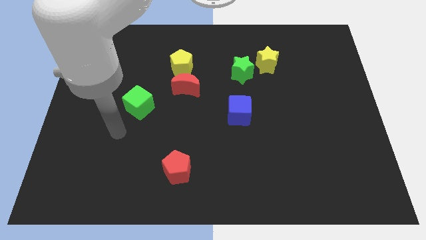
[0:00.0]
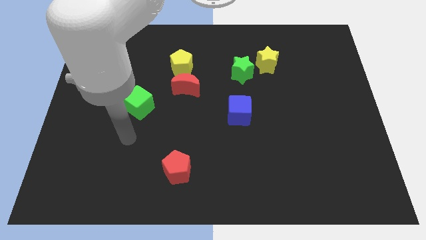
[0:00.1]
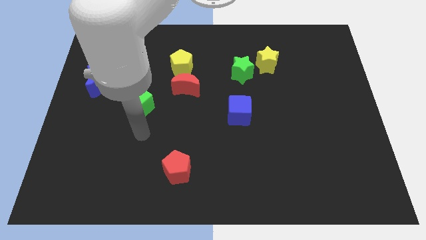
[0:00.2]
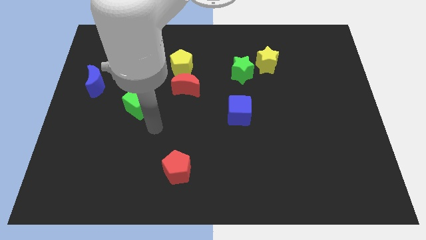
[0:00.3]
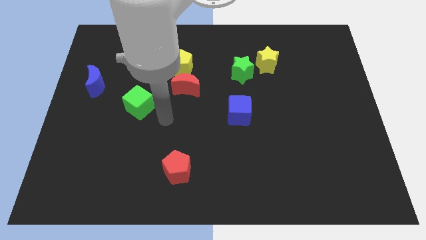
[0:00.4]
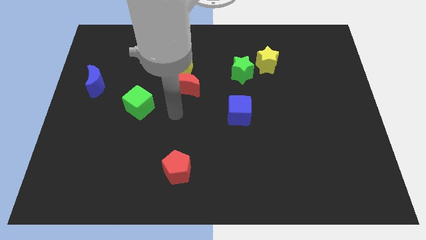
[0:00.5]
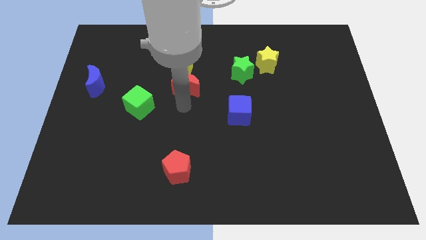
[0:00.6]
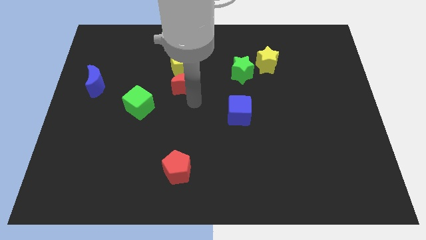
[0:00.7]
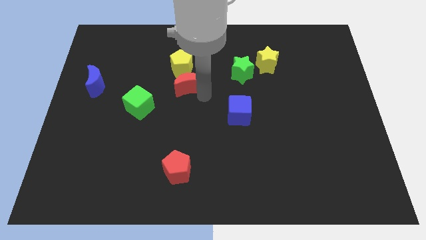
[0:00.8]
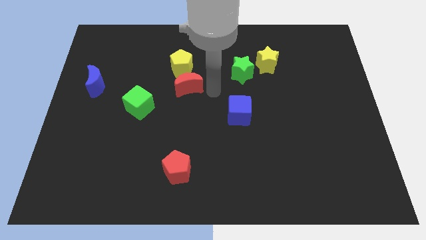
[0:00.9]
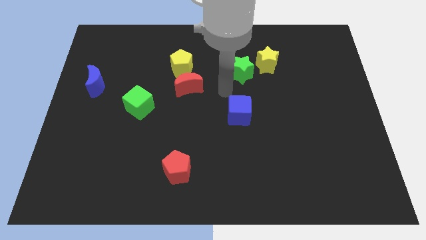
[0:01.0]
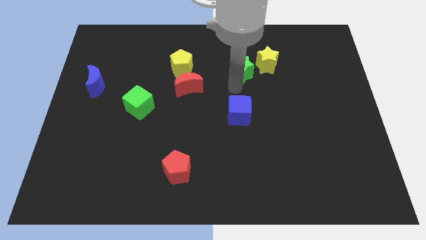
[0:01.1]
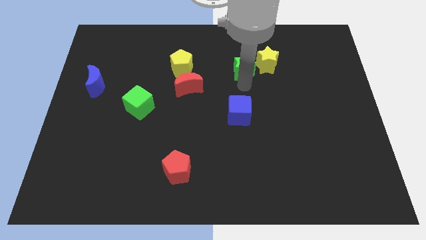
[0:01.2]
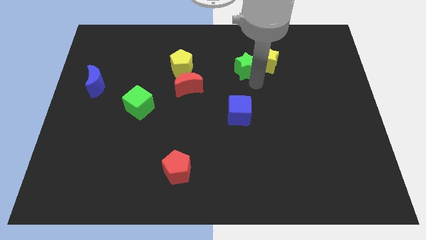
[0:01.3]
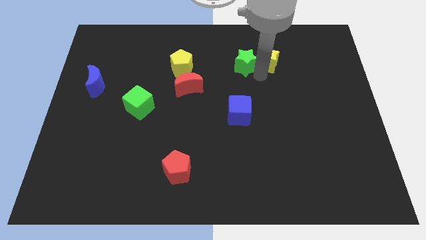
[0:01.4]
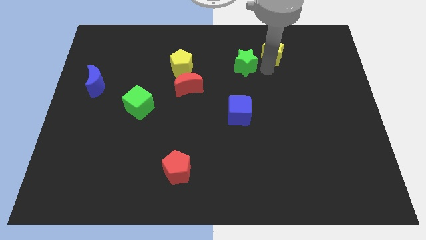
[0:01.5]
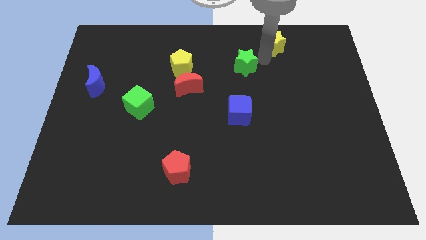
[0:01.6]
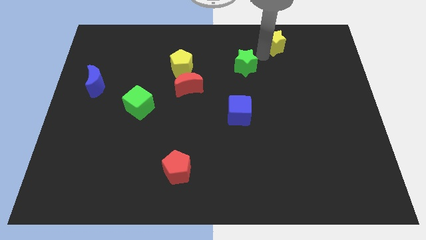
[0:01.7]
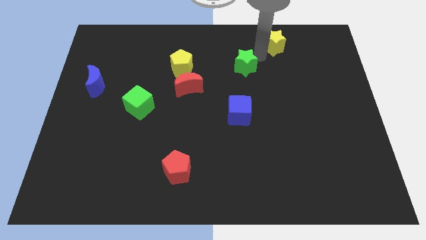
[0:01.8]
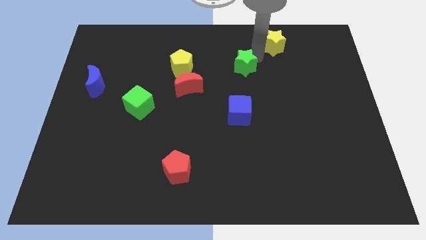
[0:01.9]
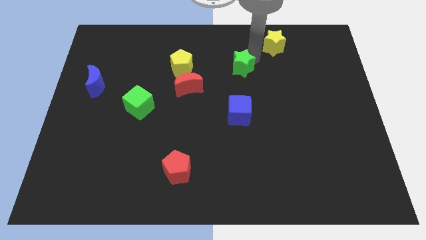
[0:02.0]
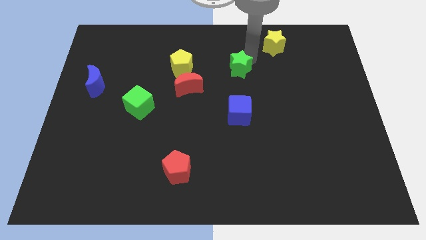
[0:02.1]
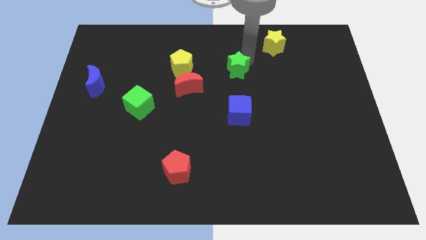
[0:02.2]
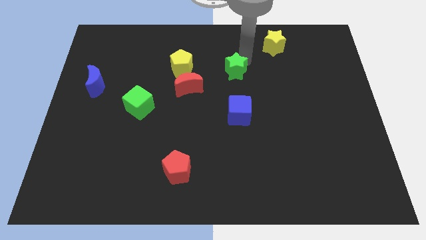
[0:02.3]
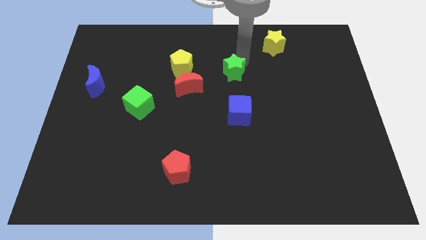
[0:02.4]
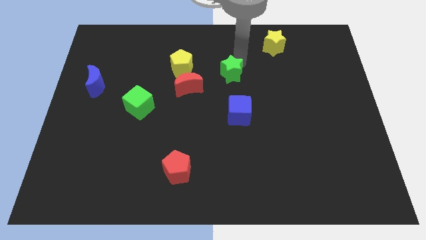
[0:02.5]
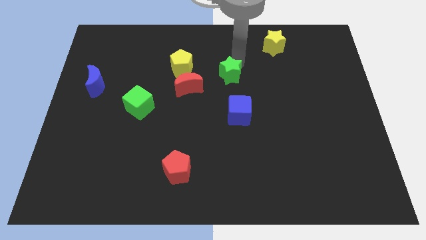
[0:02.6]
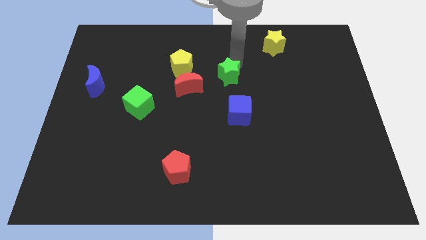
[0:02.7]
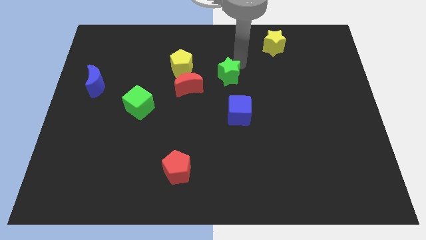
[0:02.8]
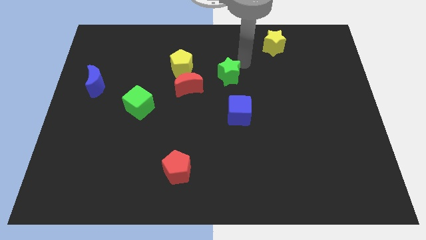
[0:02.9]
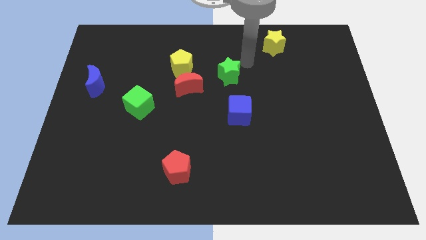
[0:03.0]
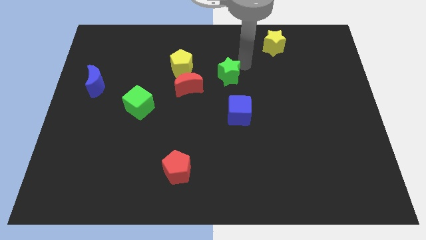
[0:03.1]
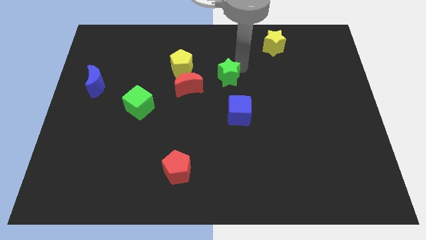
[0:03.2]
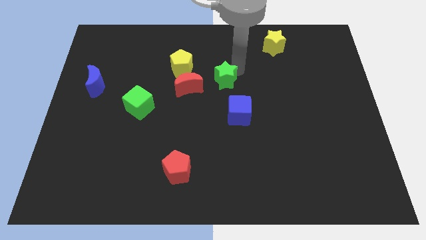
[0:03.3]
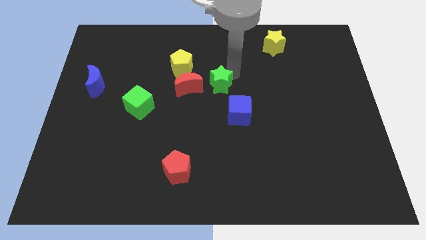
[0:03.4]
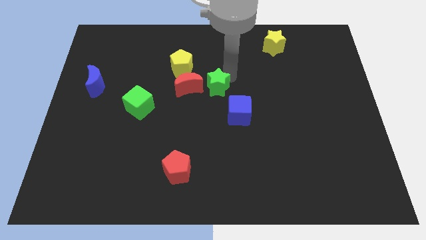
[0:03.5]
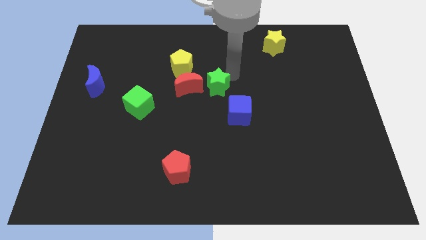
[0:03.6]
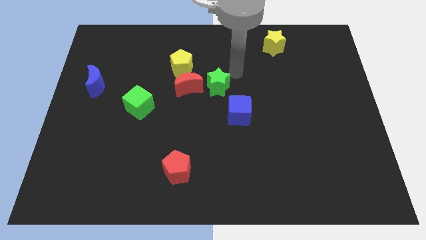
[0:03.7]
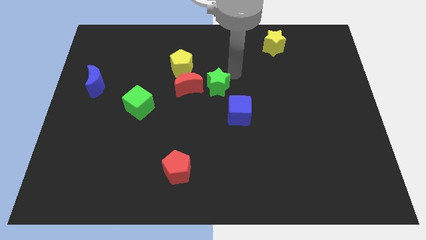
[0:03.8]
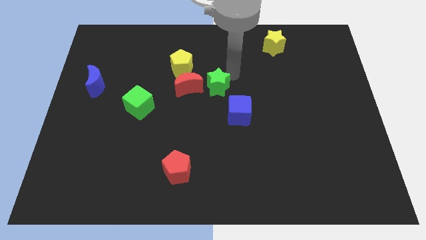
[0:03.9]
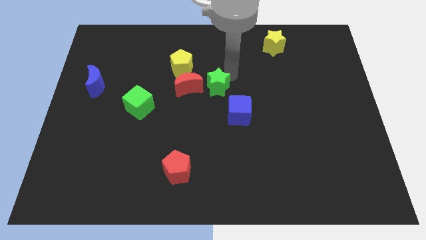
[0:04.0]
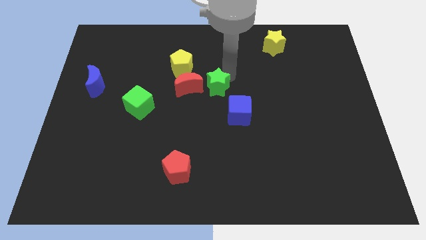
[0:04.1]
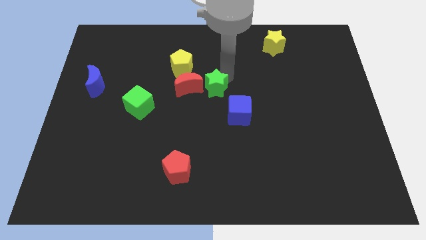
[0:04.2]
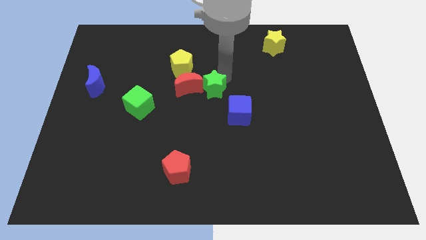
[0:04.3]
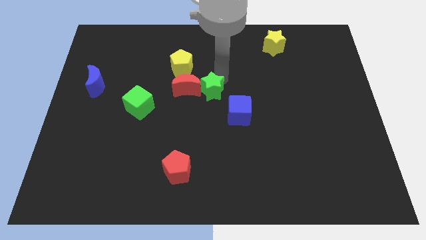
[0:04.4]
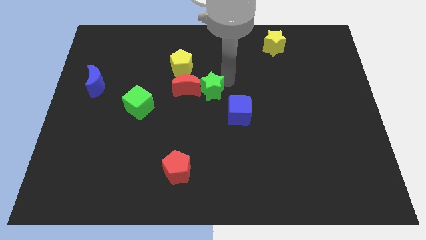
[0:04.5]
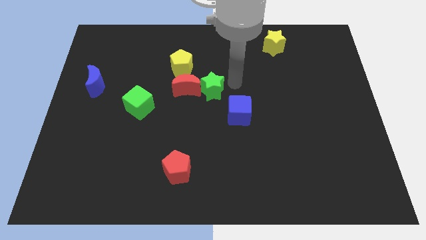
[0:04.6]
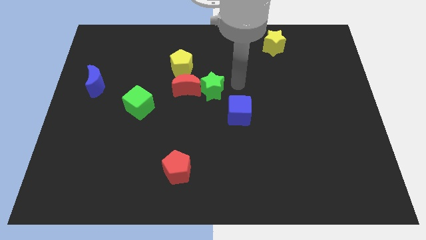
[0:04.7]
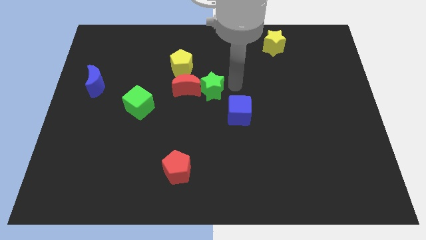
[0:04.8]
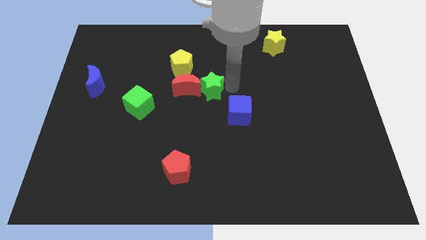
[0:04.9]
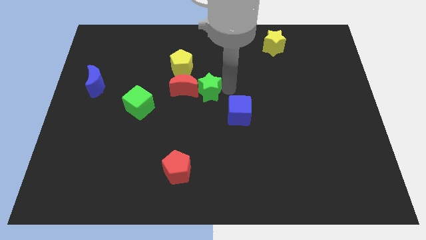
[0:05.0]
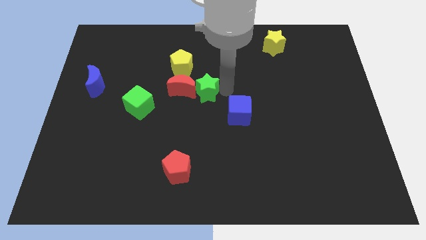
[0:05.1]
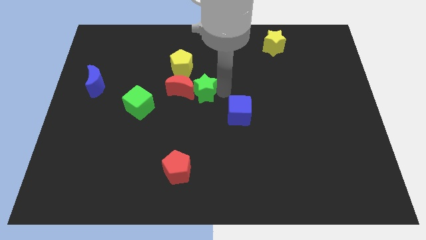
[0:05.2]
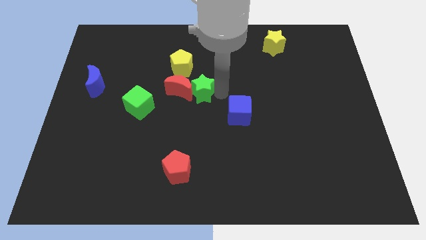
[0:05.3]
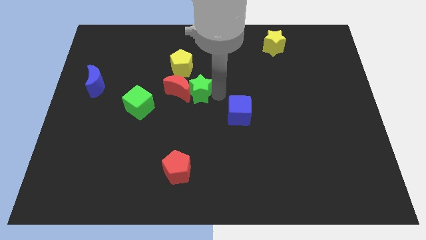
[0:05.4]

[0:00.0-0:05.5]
put the green star to the bottom of the yellow pentagon

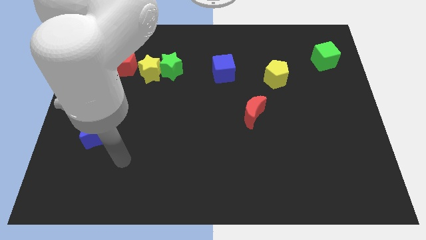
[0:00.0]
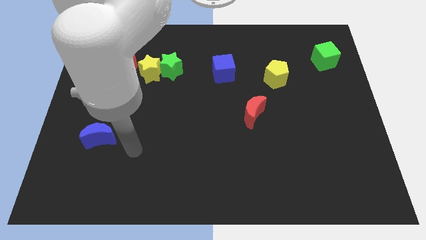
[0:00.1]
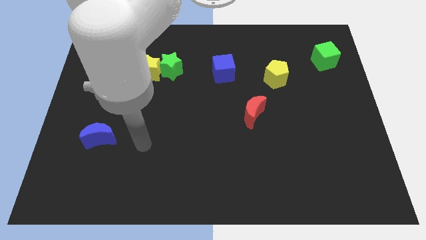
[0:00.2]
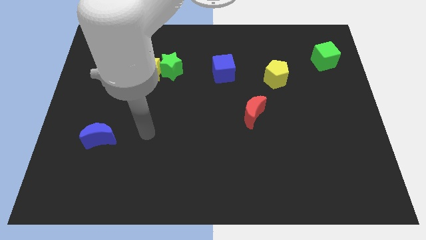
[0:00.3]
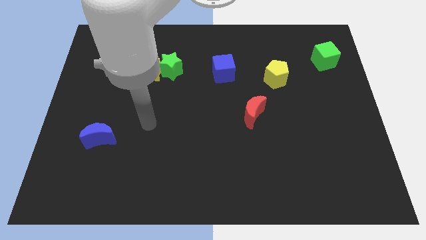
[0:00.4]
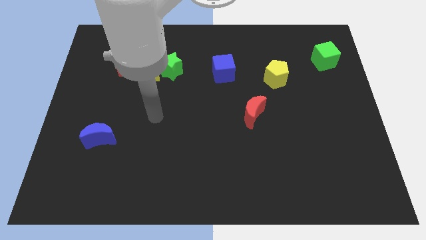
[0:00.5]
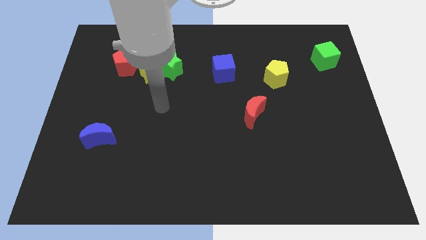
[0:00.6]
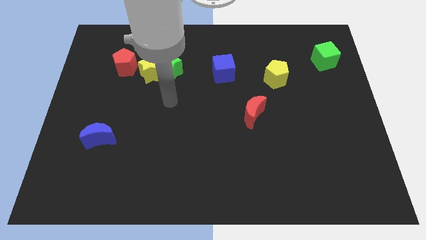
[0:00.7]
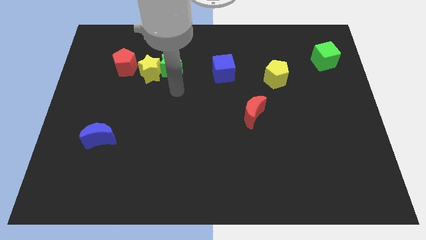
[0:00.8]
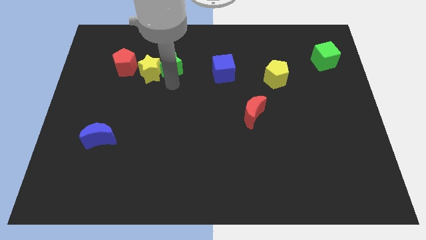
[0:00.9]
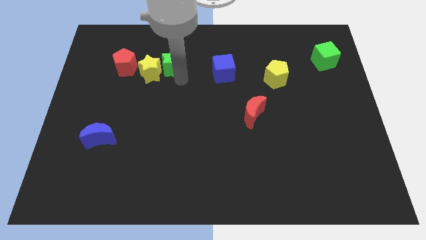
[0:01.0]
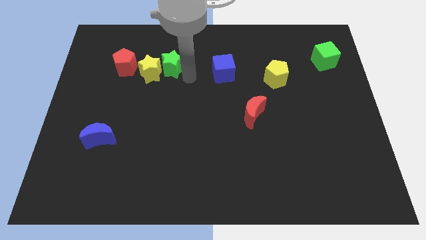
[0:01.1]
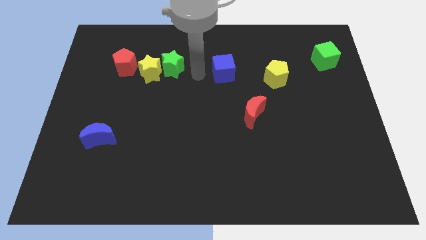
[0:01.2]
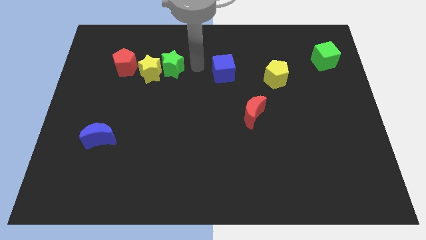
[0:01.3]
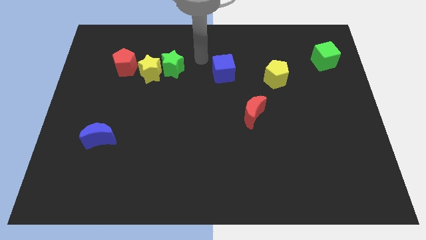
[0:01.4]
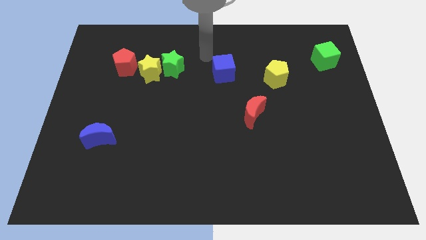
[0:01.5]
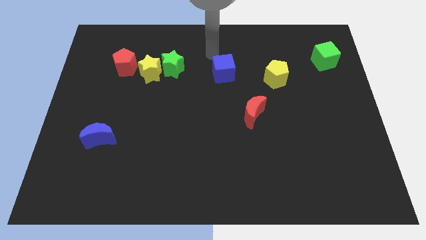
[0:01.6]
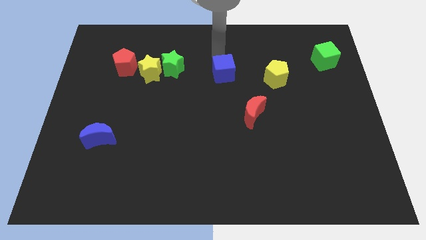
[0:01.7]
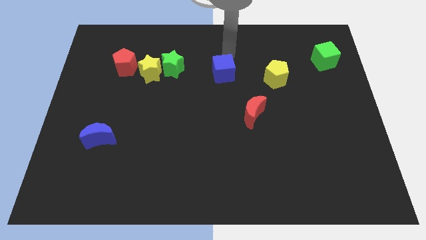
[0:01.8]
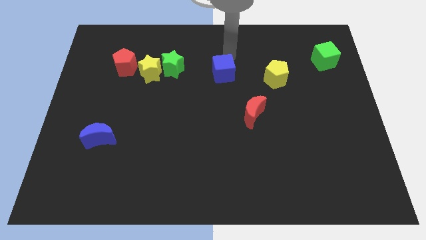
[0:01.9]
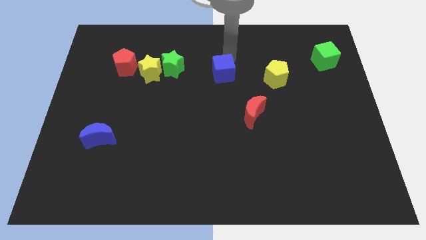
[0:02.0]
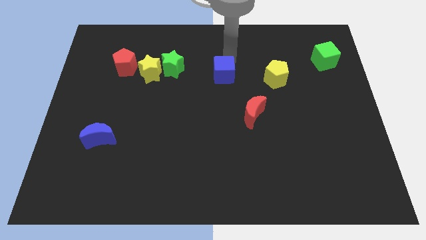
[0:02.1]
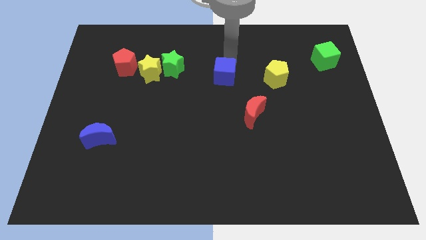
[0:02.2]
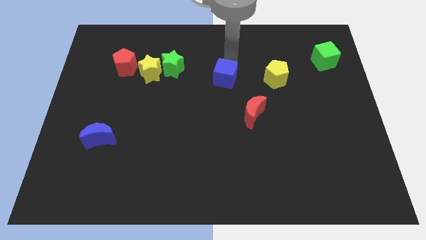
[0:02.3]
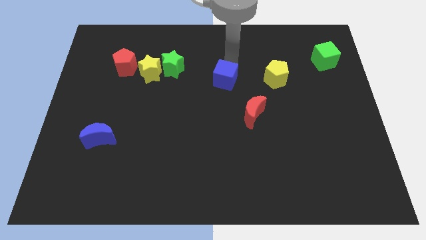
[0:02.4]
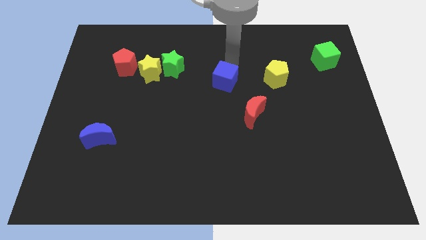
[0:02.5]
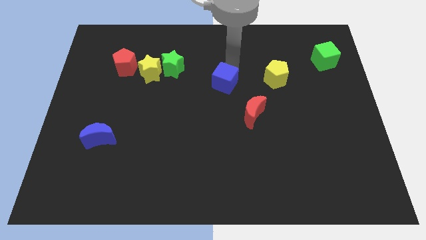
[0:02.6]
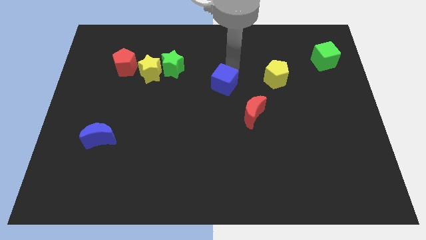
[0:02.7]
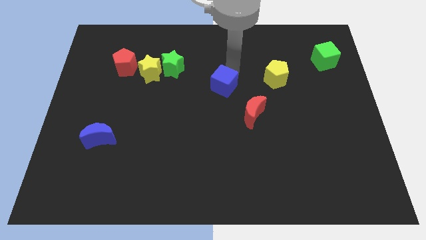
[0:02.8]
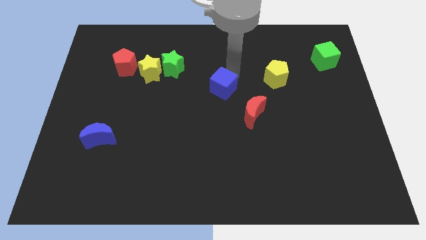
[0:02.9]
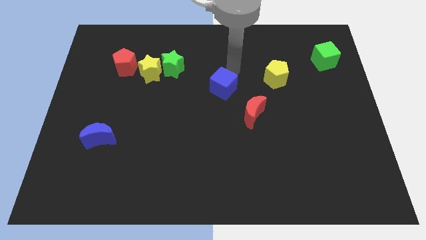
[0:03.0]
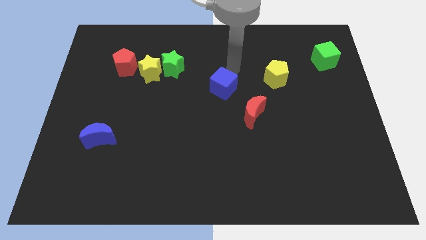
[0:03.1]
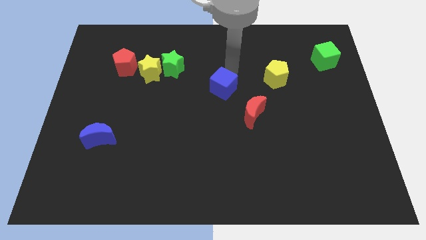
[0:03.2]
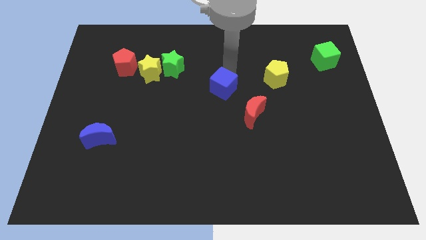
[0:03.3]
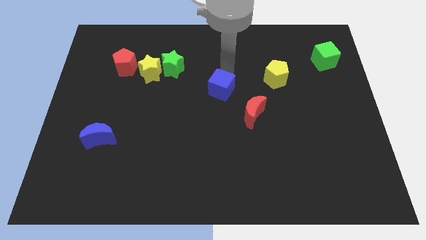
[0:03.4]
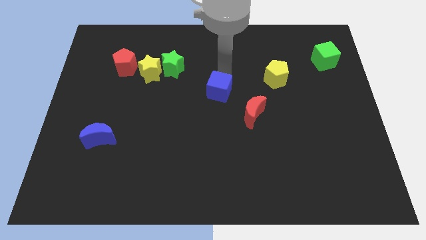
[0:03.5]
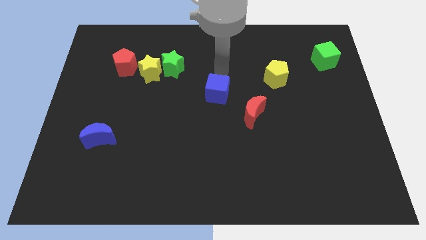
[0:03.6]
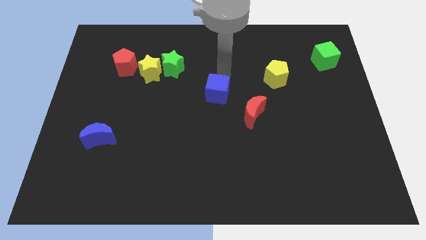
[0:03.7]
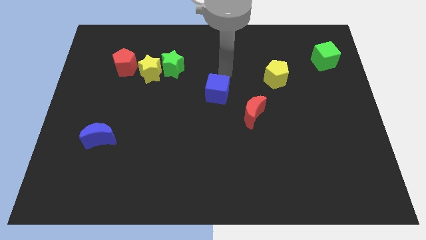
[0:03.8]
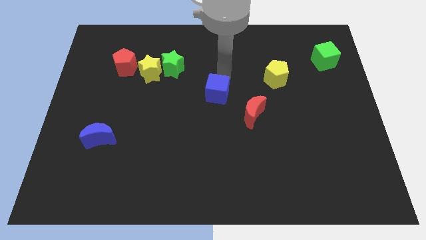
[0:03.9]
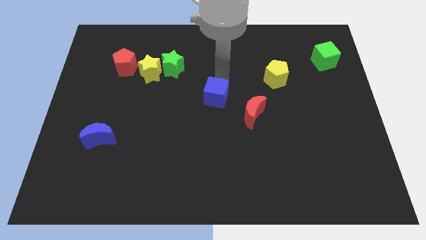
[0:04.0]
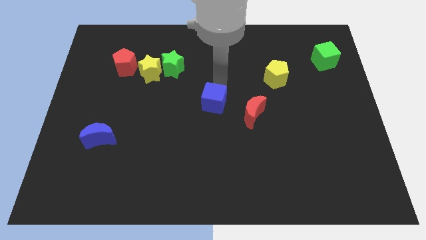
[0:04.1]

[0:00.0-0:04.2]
move the blue cube to the left side of the red moon
